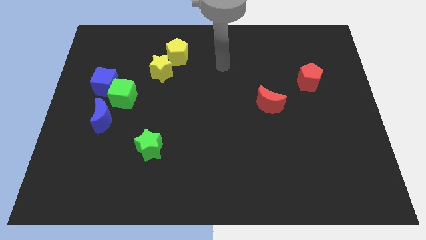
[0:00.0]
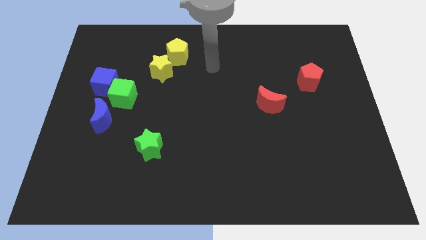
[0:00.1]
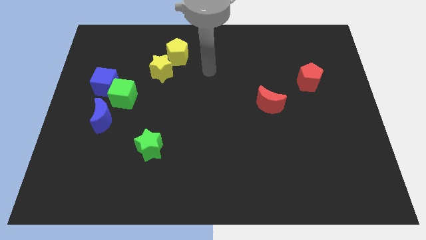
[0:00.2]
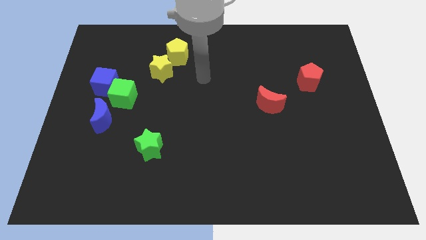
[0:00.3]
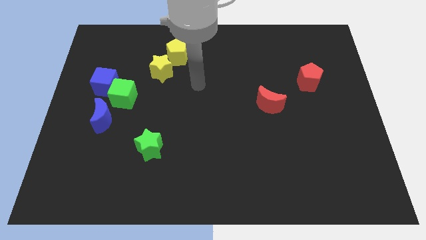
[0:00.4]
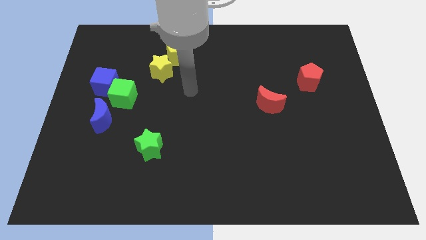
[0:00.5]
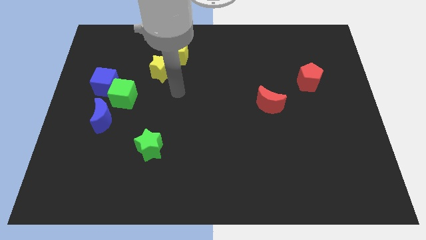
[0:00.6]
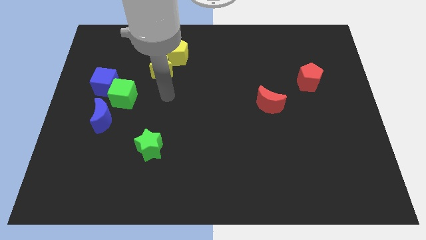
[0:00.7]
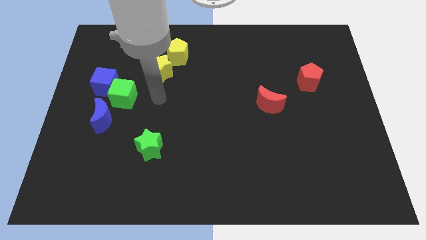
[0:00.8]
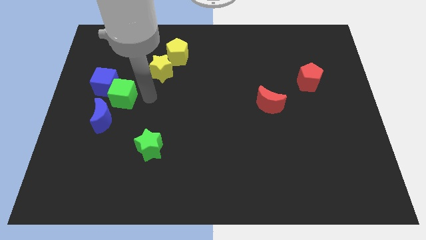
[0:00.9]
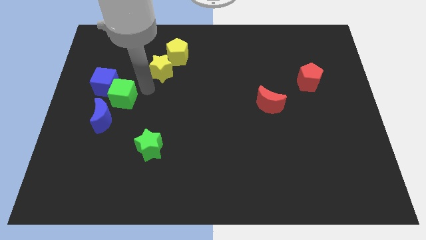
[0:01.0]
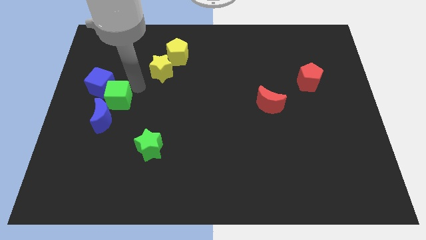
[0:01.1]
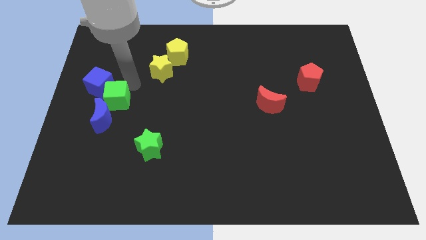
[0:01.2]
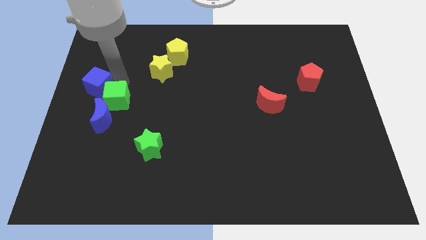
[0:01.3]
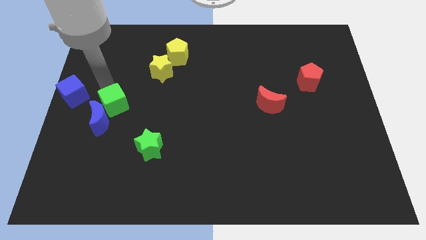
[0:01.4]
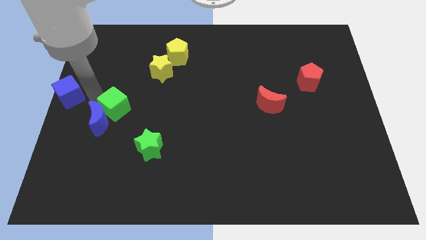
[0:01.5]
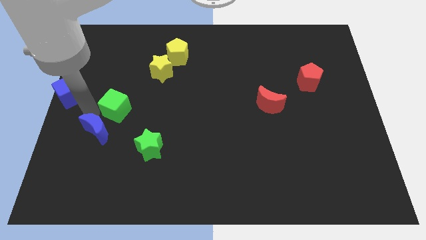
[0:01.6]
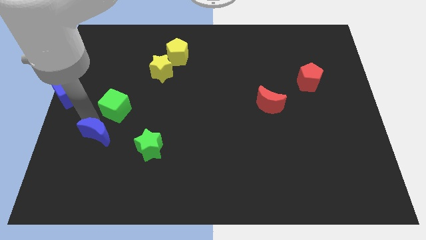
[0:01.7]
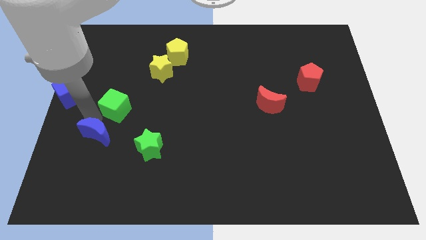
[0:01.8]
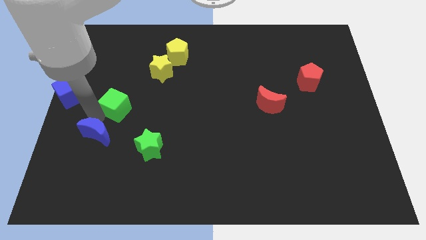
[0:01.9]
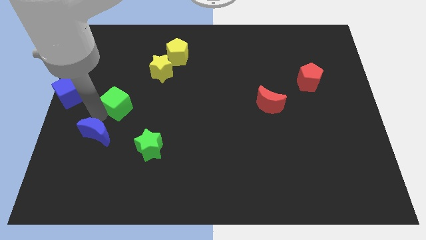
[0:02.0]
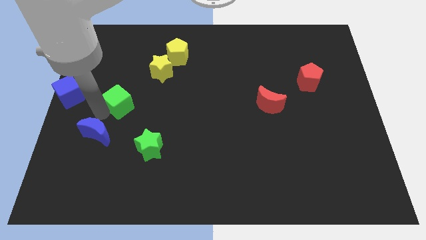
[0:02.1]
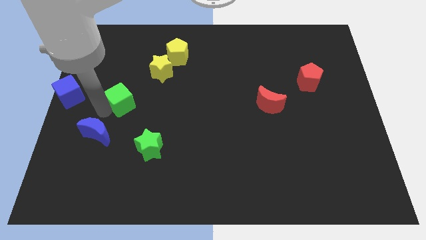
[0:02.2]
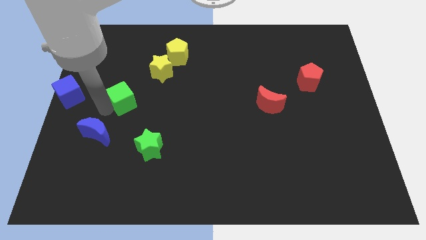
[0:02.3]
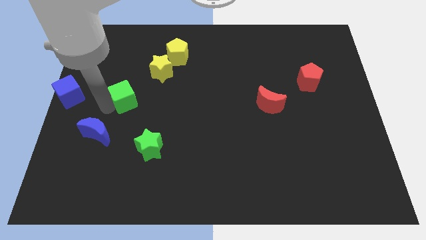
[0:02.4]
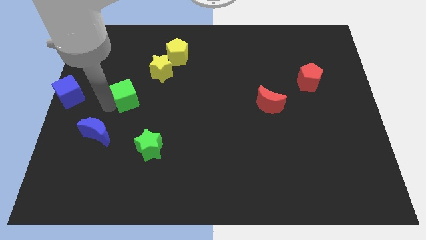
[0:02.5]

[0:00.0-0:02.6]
pull the green cube apart from the blue cube and blue moon

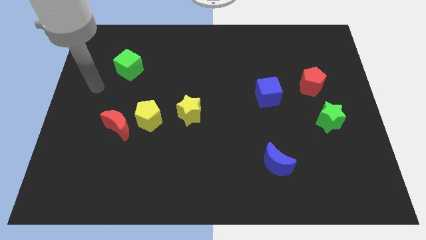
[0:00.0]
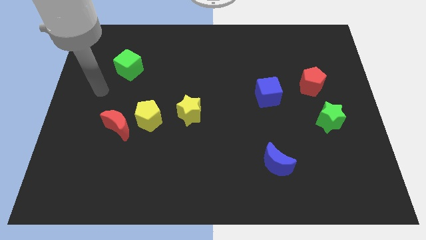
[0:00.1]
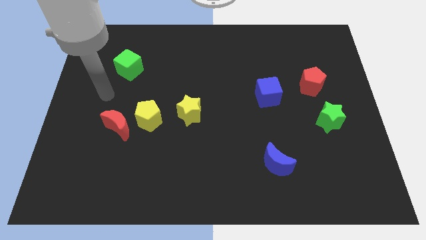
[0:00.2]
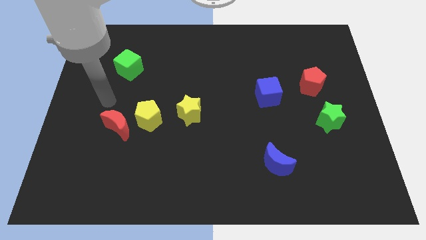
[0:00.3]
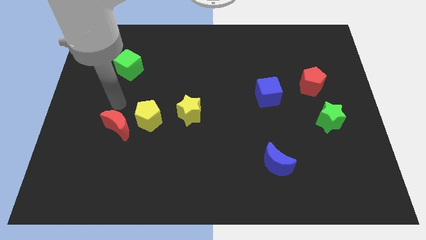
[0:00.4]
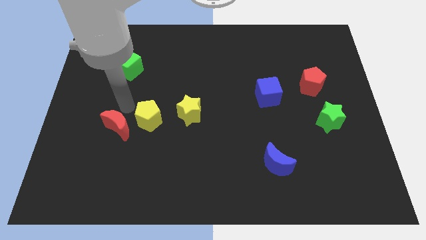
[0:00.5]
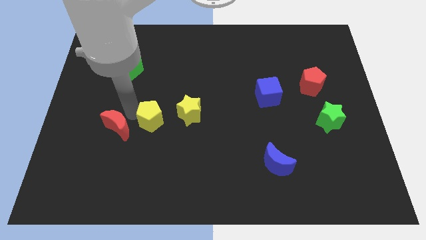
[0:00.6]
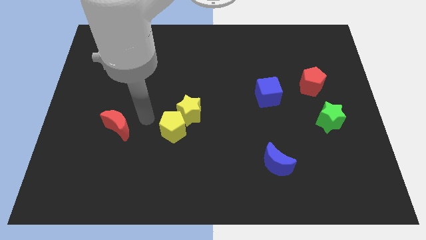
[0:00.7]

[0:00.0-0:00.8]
move the red moon away from the yellow pentagon

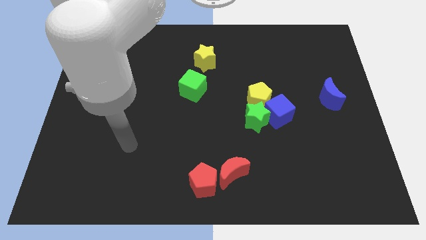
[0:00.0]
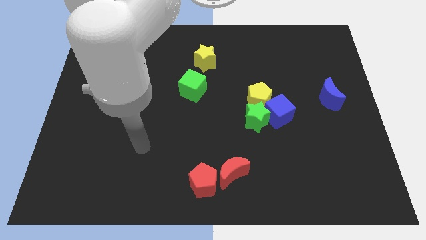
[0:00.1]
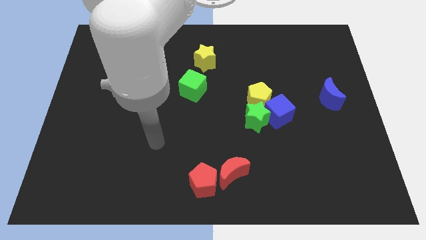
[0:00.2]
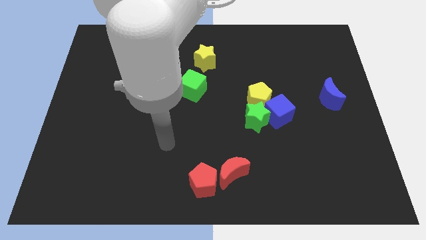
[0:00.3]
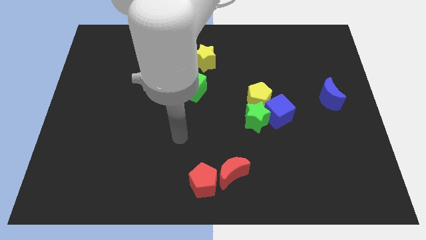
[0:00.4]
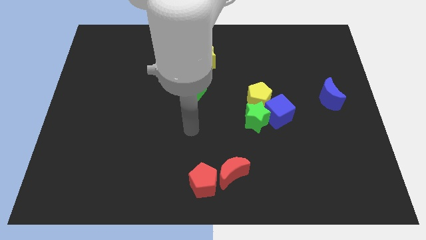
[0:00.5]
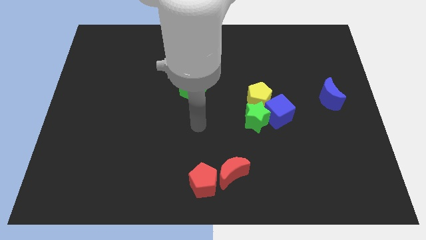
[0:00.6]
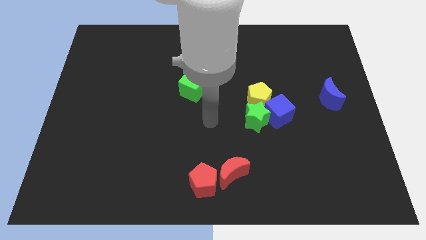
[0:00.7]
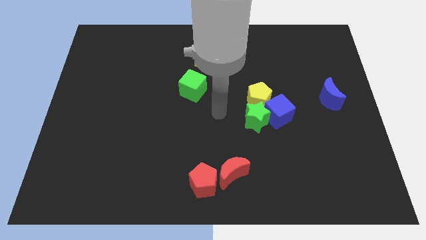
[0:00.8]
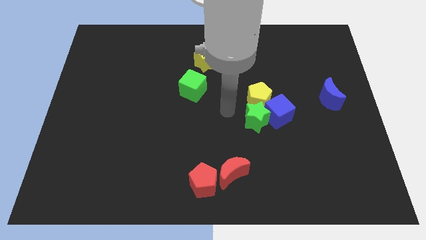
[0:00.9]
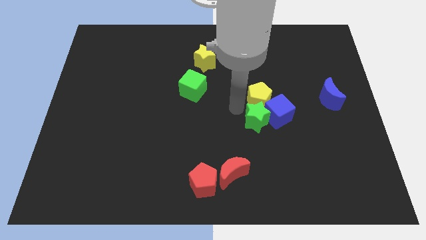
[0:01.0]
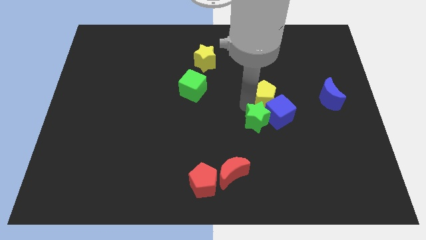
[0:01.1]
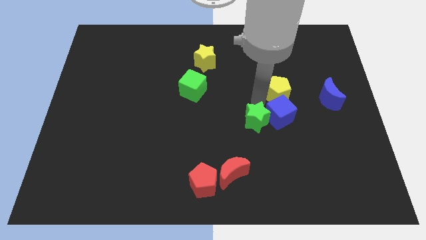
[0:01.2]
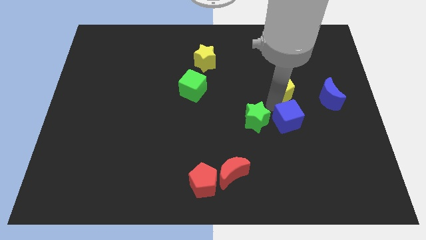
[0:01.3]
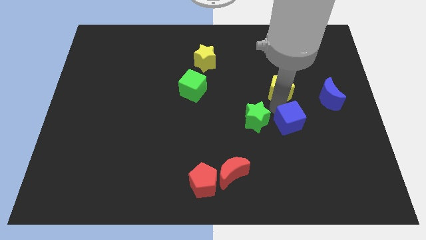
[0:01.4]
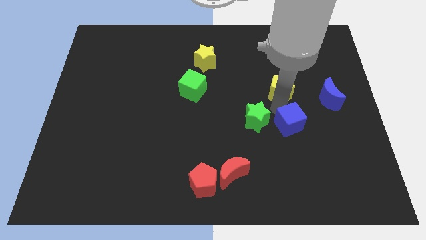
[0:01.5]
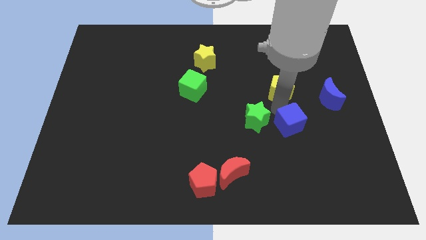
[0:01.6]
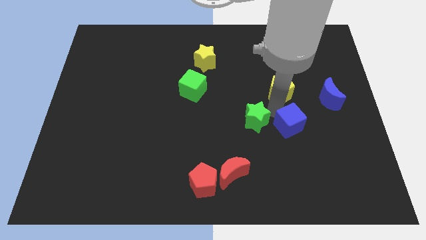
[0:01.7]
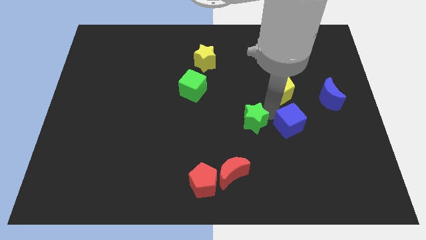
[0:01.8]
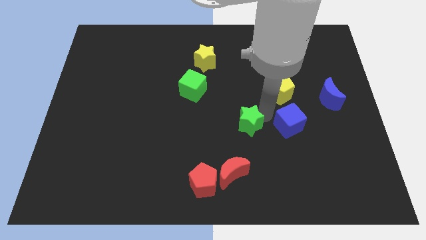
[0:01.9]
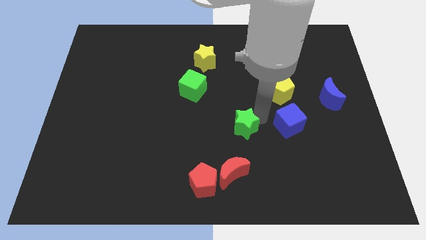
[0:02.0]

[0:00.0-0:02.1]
separate the green star from the blue cube and yellow pentagon

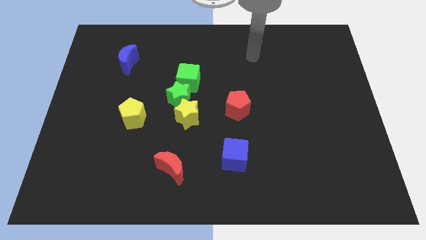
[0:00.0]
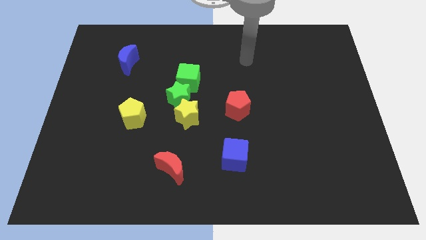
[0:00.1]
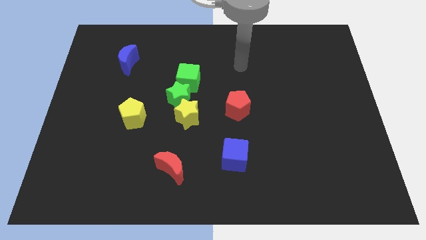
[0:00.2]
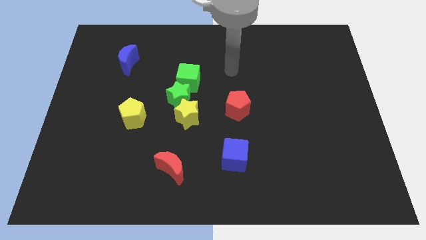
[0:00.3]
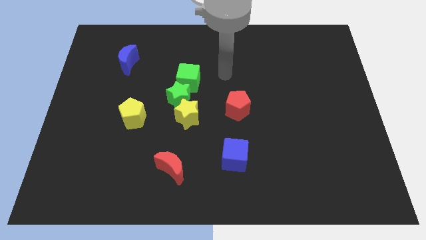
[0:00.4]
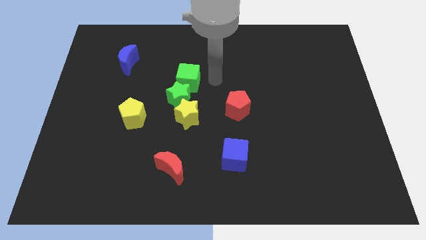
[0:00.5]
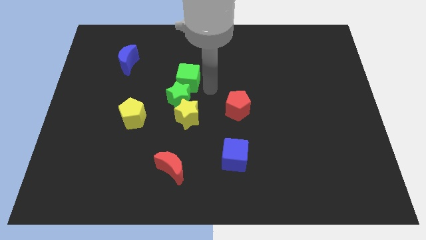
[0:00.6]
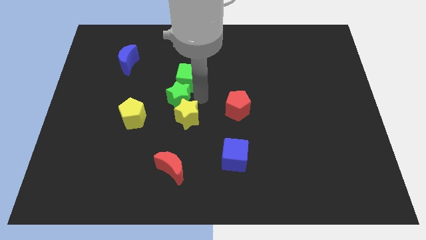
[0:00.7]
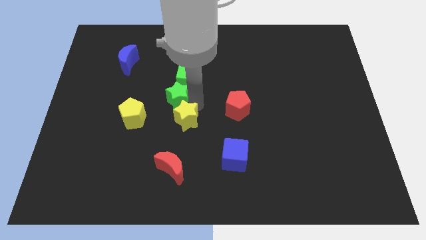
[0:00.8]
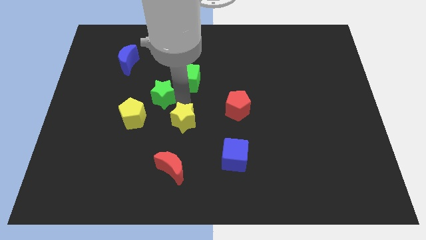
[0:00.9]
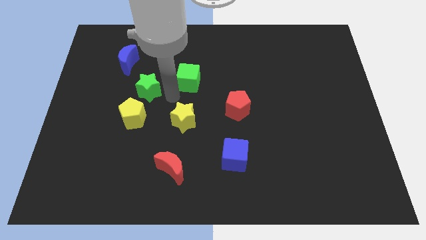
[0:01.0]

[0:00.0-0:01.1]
pull the green cube apart from the green star

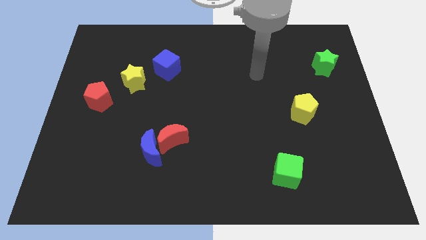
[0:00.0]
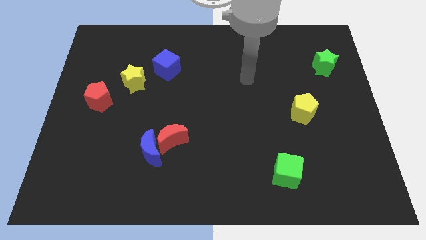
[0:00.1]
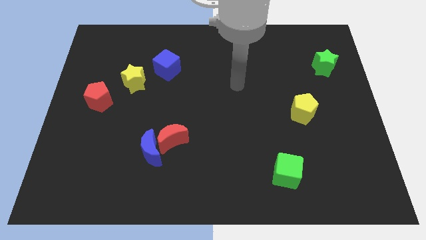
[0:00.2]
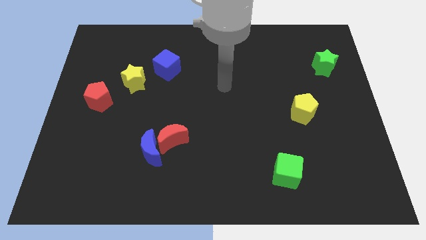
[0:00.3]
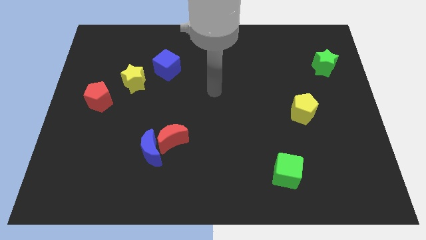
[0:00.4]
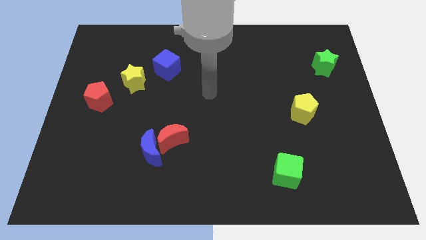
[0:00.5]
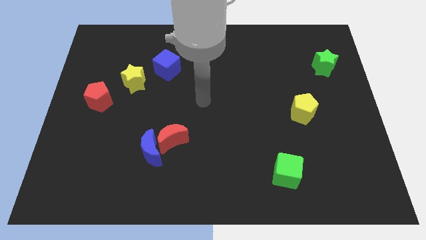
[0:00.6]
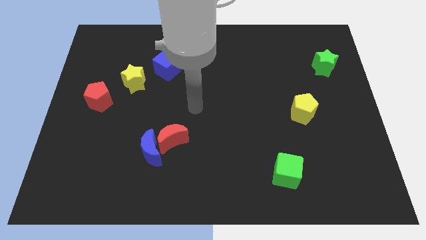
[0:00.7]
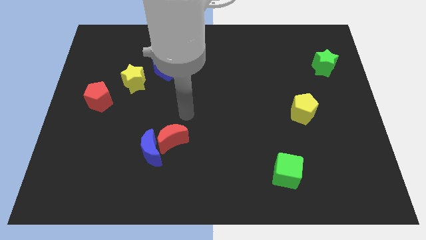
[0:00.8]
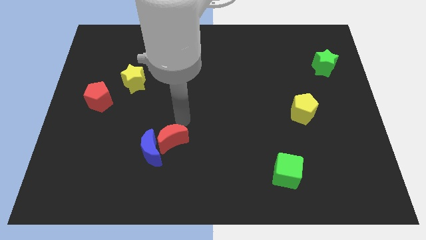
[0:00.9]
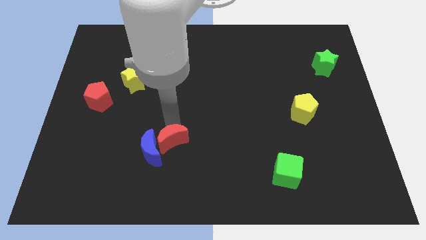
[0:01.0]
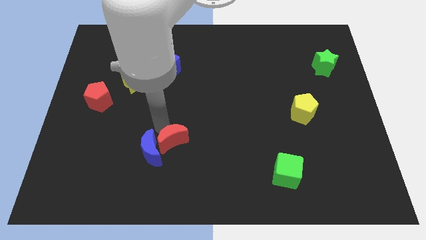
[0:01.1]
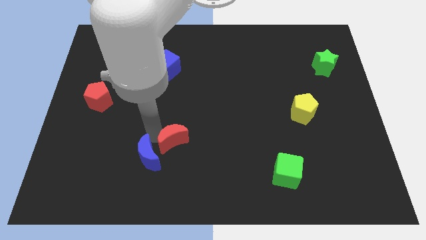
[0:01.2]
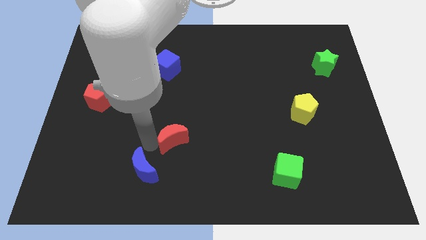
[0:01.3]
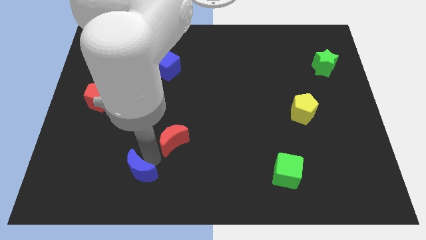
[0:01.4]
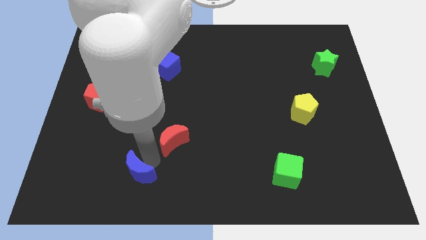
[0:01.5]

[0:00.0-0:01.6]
move the red moon away from the blue moon

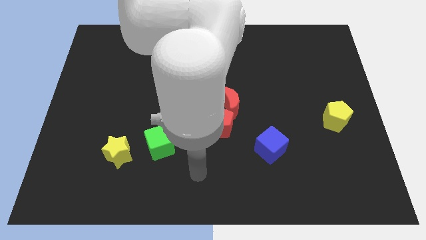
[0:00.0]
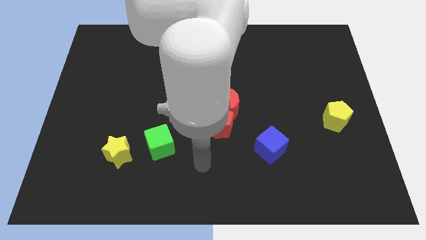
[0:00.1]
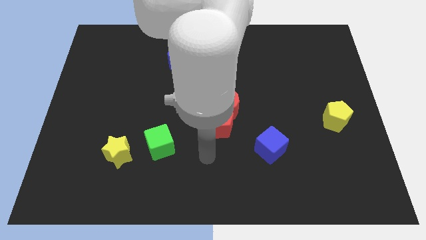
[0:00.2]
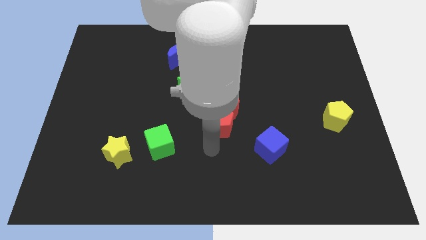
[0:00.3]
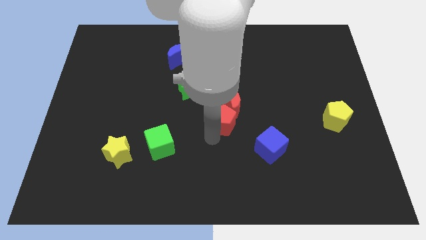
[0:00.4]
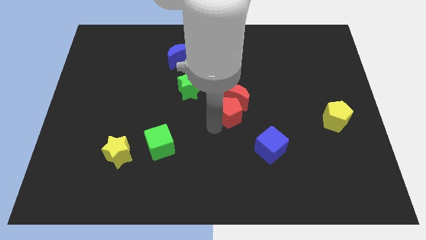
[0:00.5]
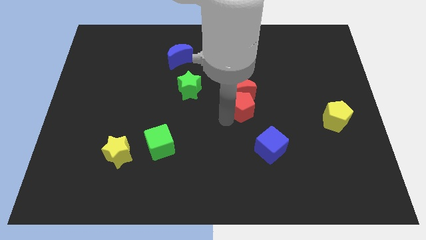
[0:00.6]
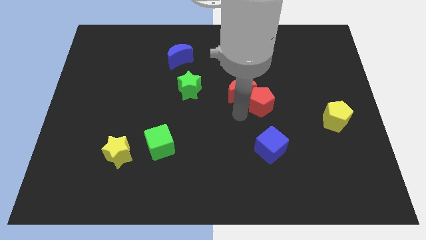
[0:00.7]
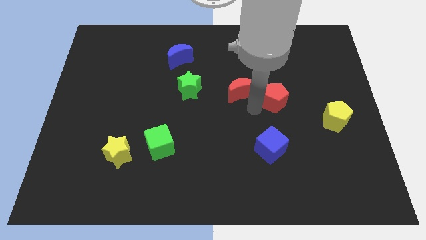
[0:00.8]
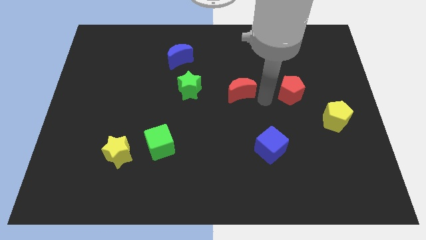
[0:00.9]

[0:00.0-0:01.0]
pull the red moon apart from the red pentagon

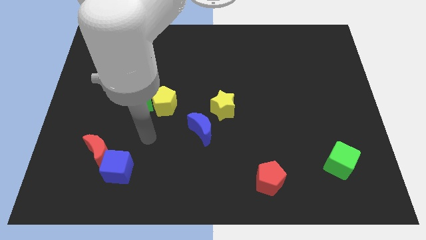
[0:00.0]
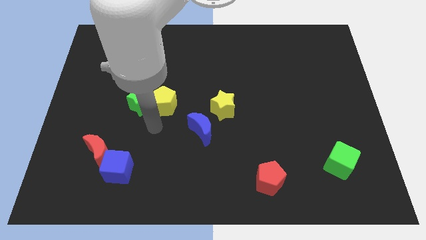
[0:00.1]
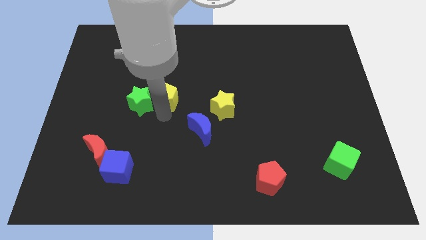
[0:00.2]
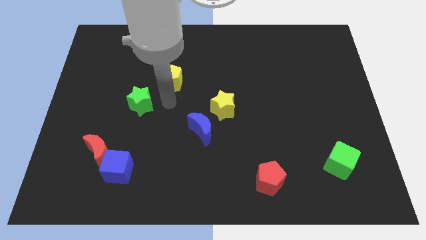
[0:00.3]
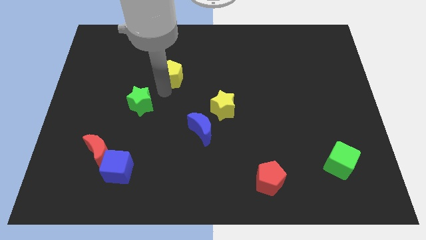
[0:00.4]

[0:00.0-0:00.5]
pull the green star apart from the yellow pentagon
